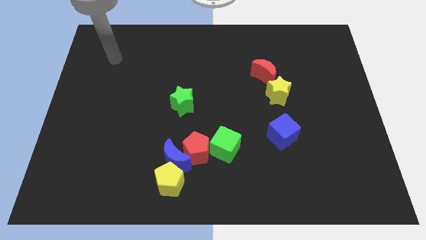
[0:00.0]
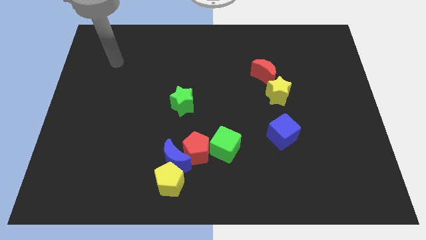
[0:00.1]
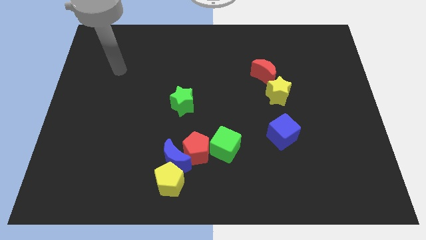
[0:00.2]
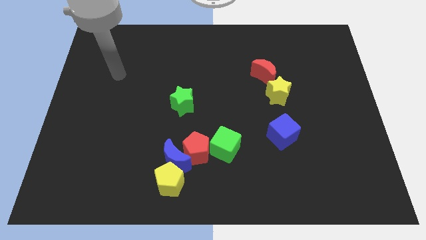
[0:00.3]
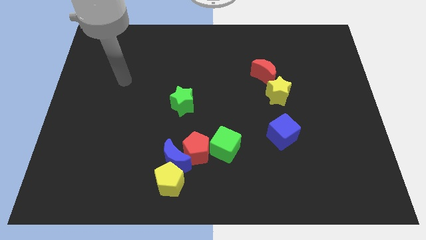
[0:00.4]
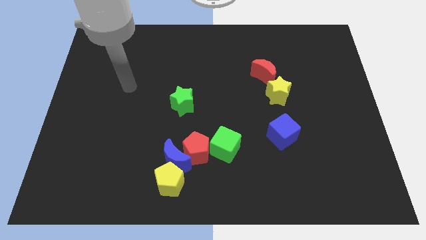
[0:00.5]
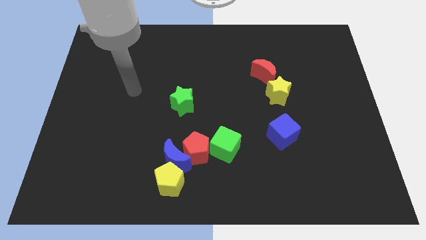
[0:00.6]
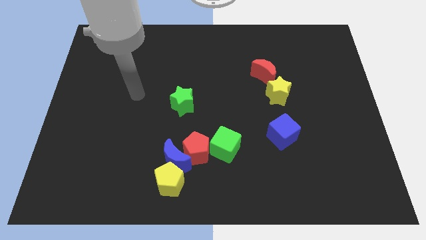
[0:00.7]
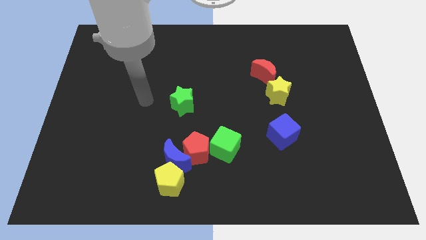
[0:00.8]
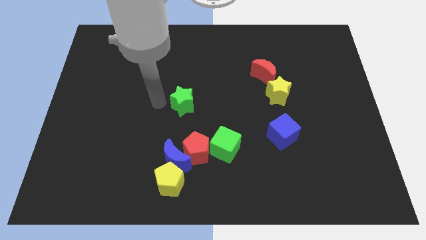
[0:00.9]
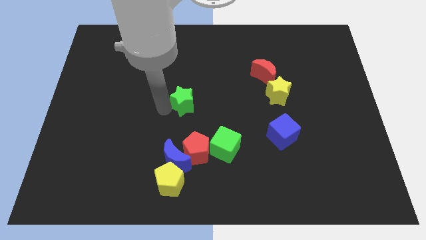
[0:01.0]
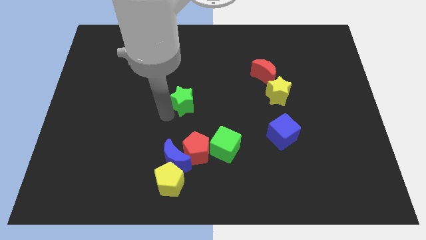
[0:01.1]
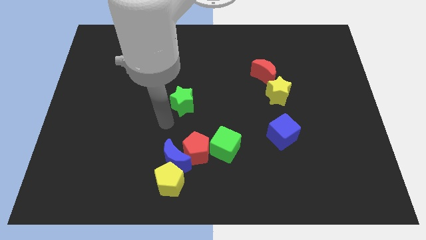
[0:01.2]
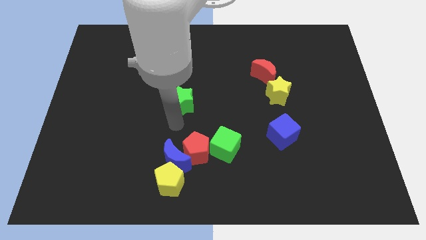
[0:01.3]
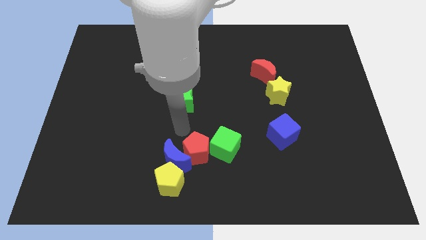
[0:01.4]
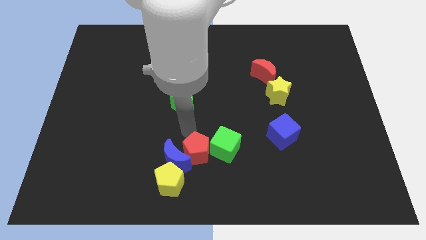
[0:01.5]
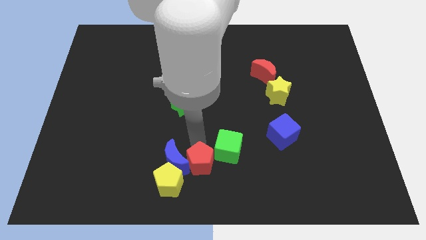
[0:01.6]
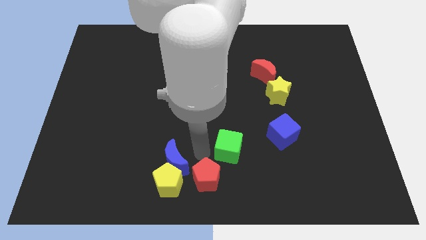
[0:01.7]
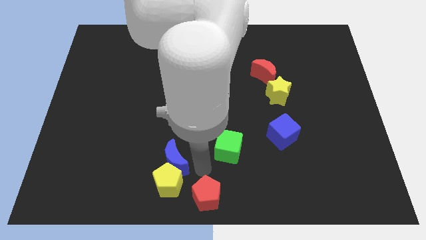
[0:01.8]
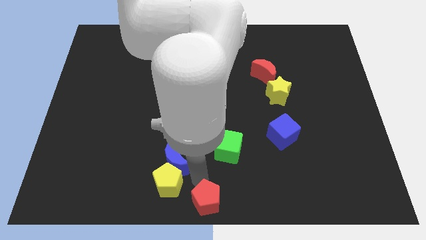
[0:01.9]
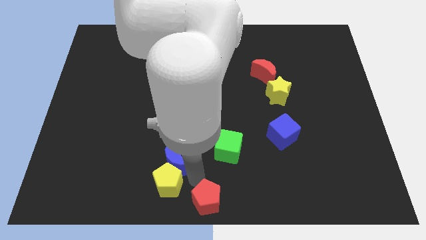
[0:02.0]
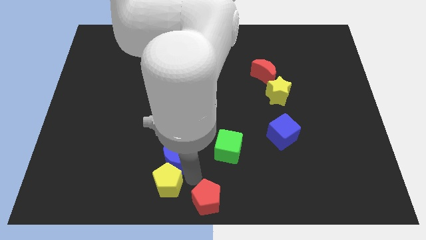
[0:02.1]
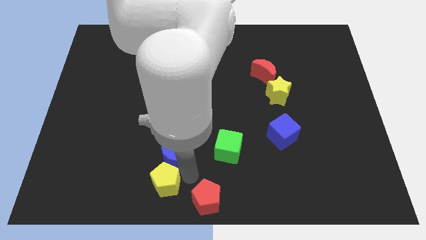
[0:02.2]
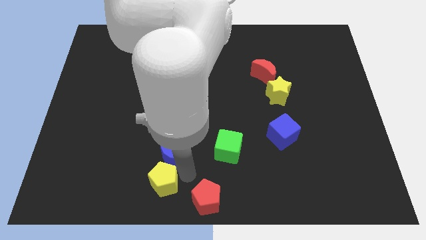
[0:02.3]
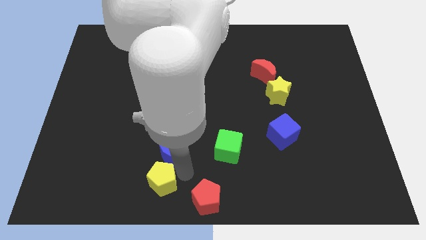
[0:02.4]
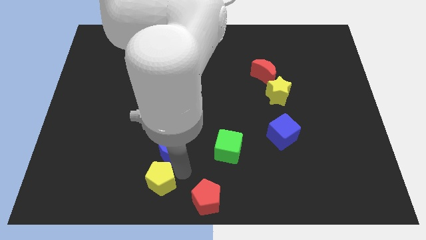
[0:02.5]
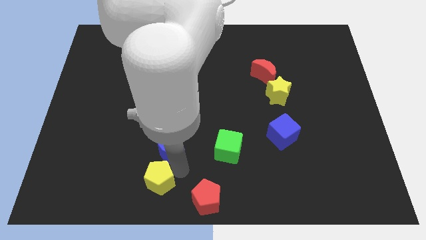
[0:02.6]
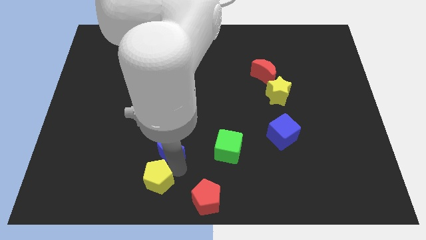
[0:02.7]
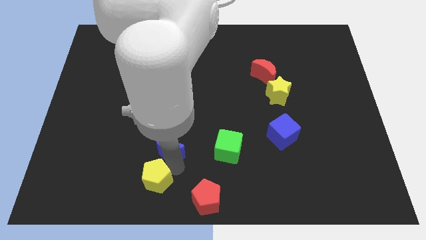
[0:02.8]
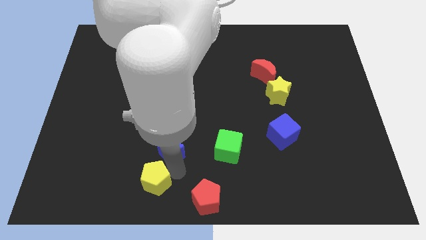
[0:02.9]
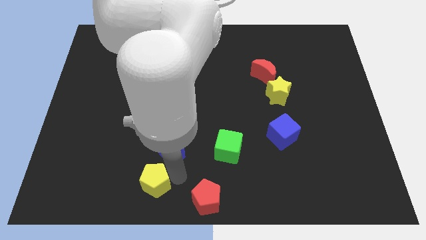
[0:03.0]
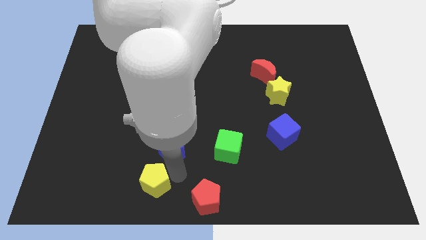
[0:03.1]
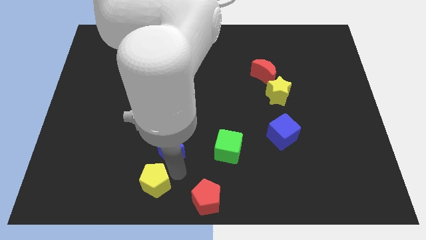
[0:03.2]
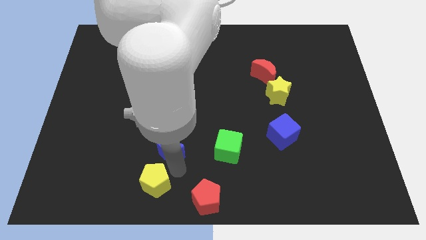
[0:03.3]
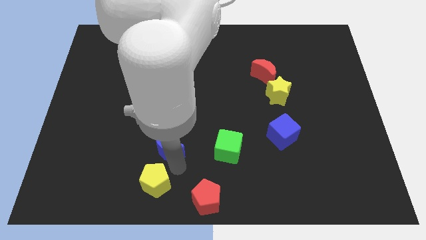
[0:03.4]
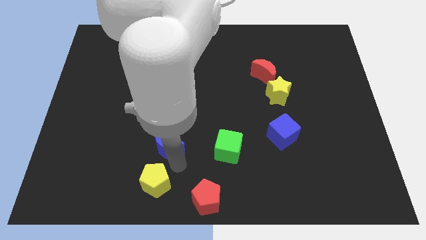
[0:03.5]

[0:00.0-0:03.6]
separate the blue moon from the red pentagon and yellow pentagon

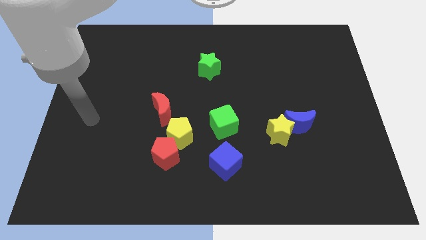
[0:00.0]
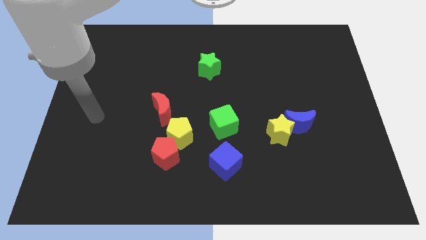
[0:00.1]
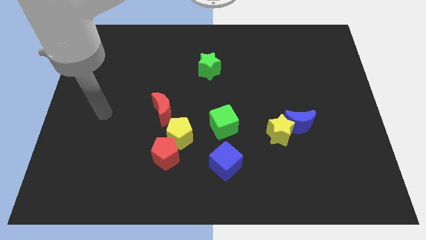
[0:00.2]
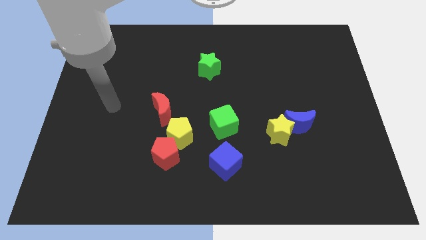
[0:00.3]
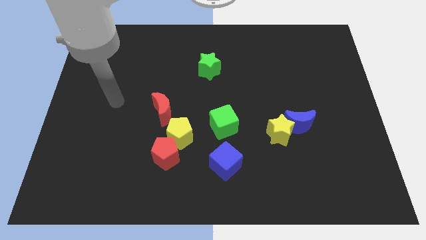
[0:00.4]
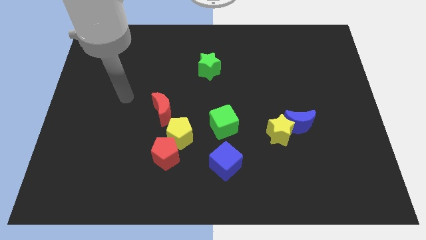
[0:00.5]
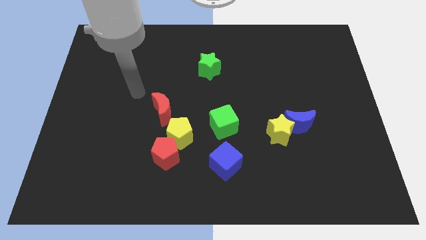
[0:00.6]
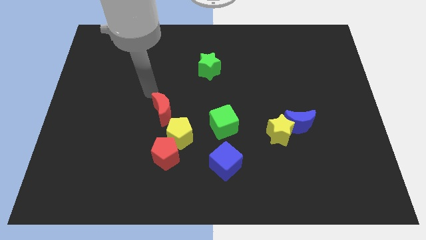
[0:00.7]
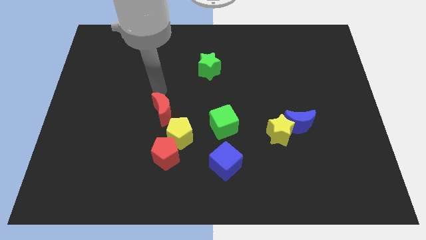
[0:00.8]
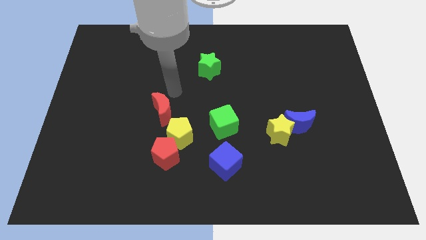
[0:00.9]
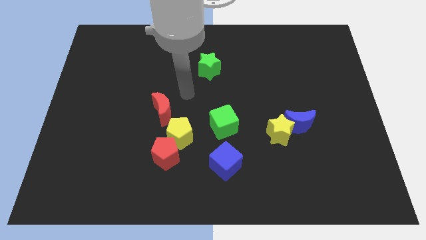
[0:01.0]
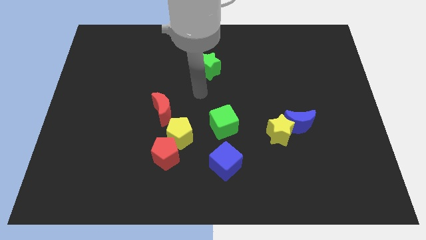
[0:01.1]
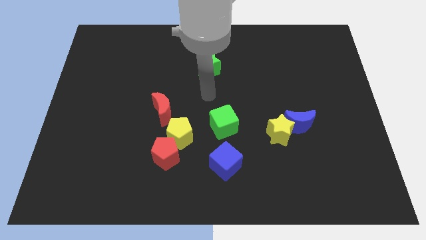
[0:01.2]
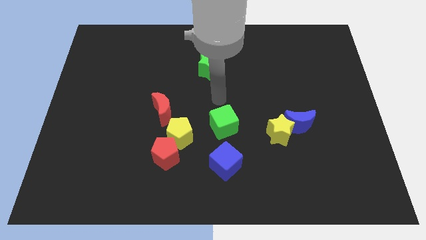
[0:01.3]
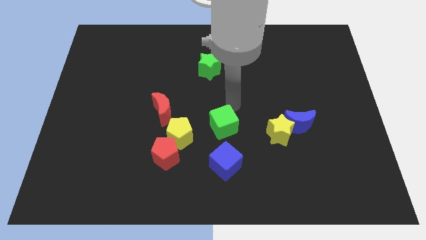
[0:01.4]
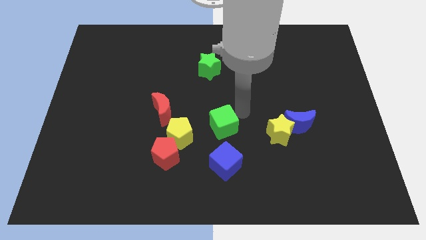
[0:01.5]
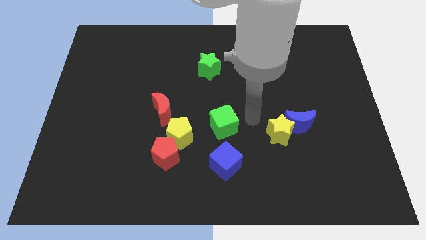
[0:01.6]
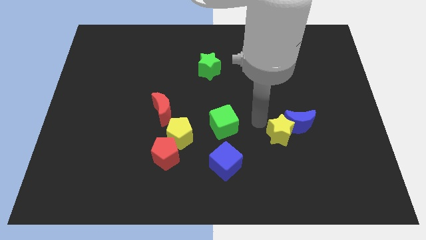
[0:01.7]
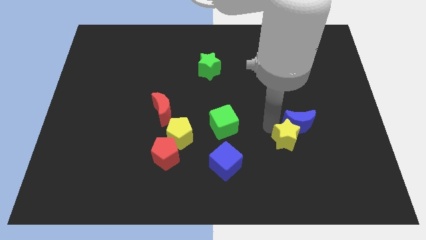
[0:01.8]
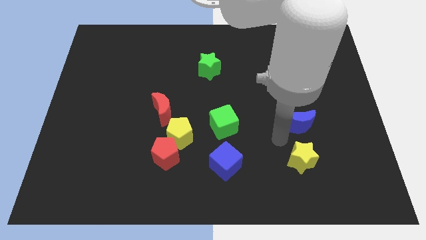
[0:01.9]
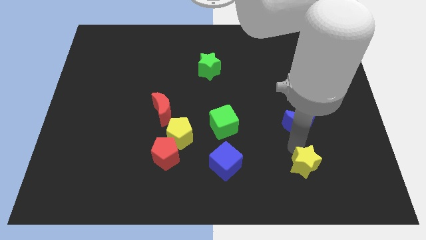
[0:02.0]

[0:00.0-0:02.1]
pull the blue moon apart from the yellow star

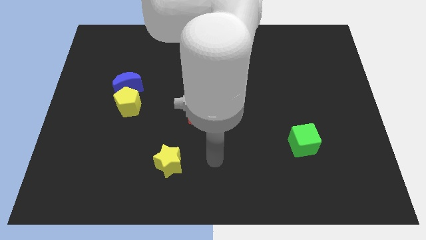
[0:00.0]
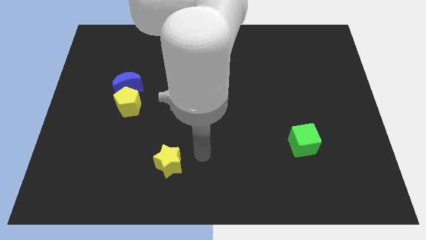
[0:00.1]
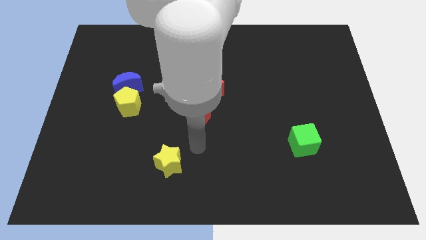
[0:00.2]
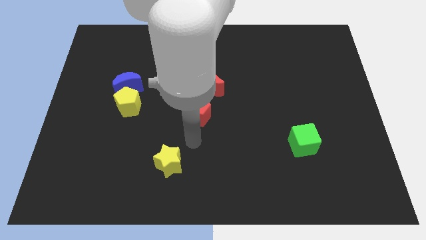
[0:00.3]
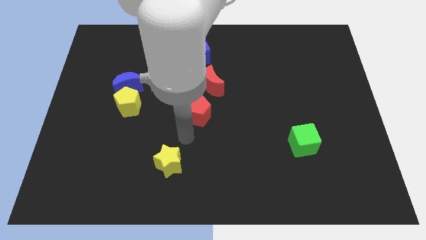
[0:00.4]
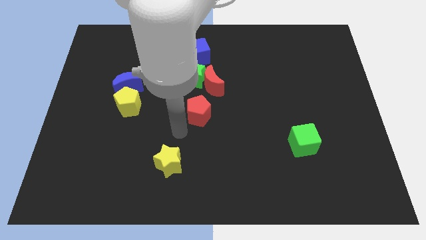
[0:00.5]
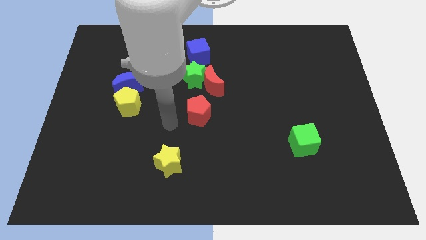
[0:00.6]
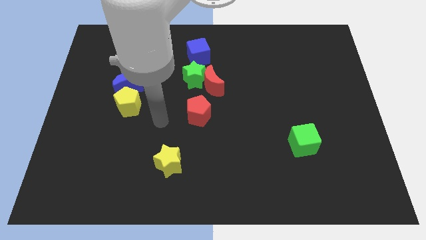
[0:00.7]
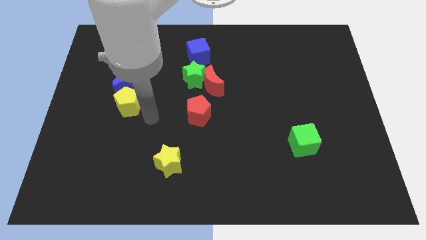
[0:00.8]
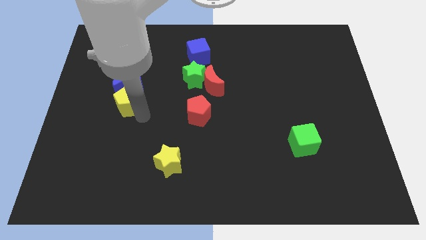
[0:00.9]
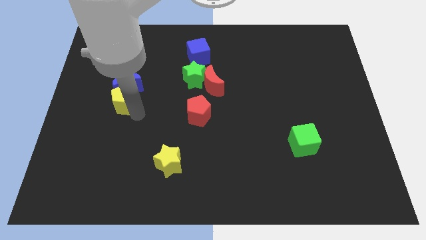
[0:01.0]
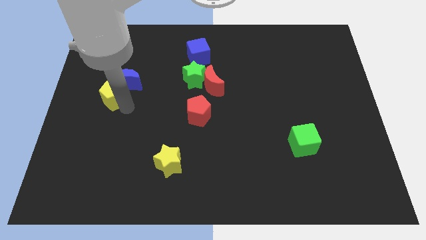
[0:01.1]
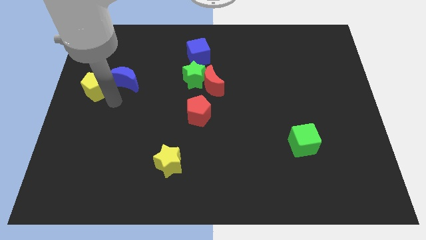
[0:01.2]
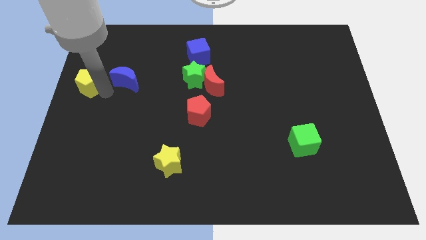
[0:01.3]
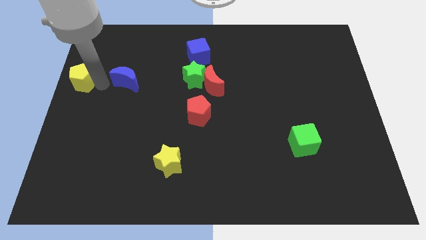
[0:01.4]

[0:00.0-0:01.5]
move the blue moon away from the yellow pentagon

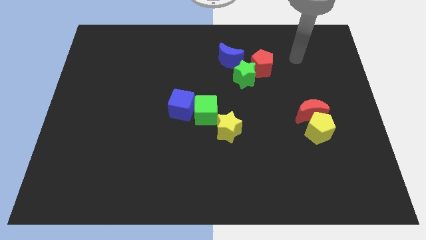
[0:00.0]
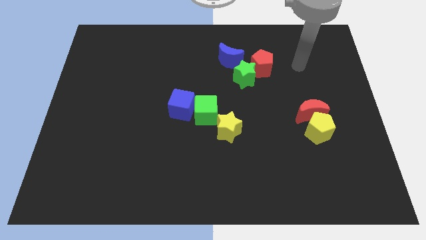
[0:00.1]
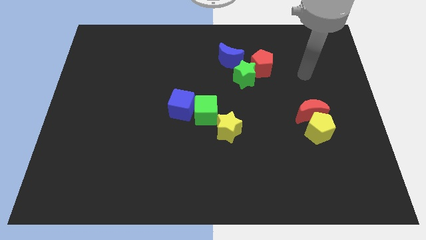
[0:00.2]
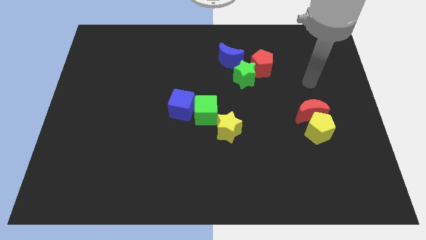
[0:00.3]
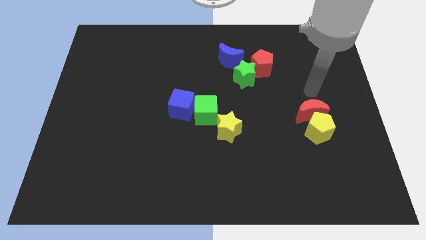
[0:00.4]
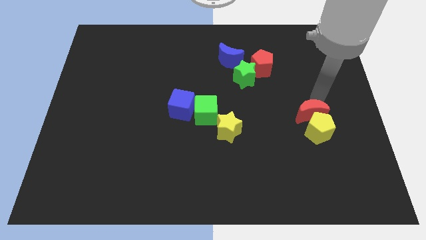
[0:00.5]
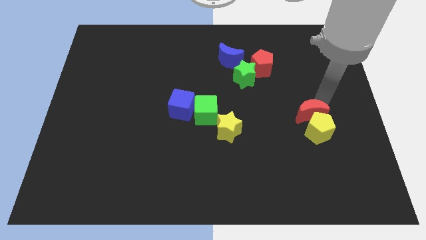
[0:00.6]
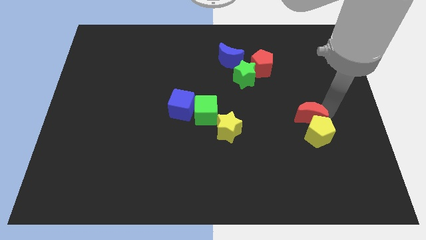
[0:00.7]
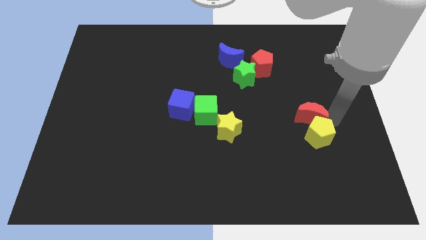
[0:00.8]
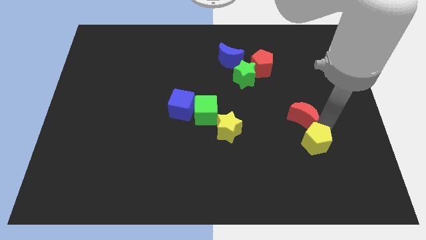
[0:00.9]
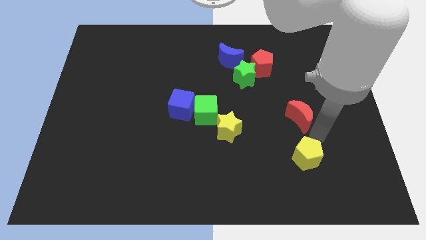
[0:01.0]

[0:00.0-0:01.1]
separate the red moon from the yellow pentagon

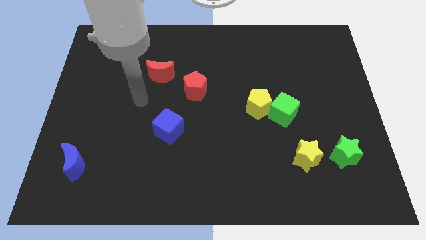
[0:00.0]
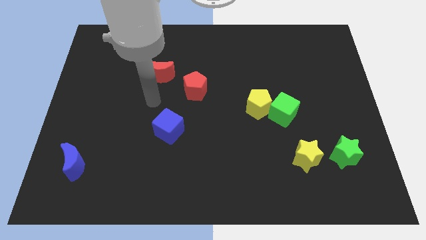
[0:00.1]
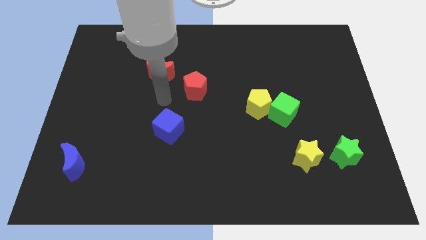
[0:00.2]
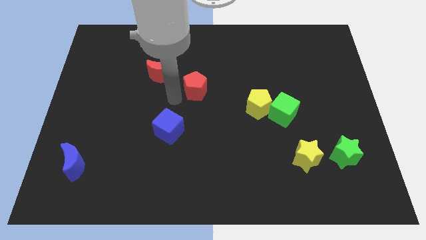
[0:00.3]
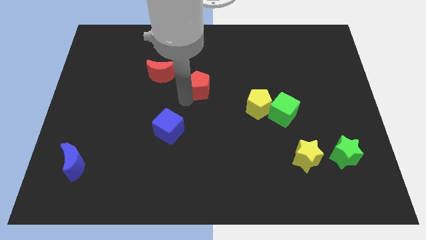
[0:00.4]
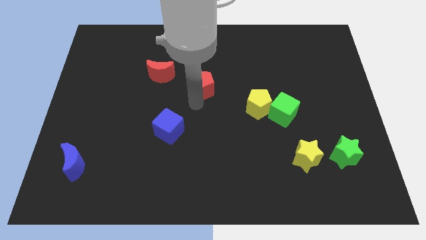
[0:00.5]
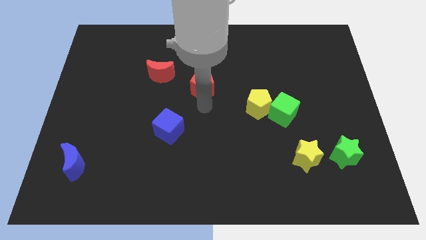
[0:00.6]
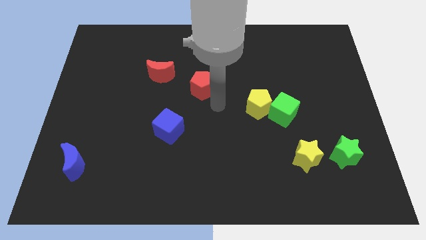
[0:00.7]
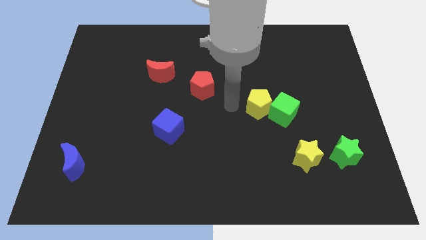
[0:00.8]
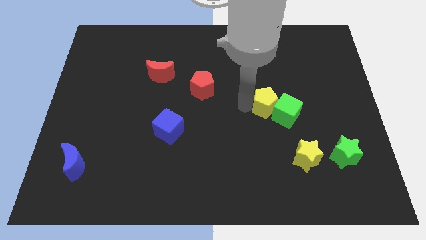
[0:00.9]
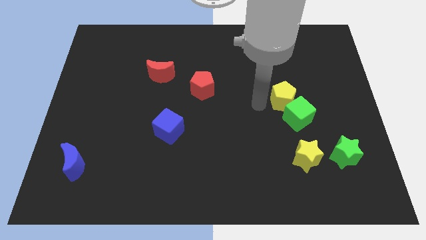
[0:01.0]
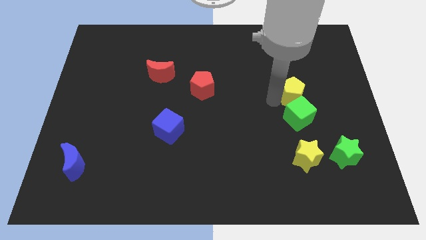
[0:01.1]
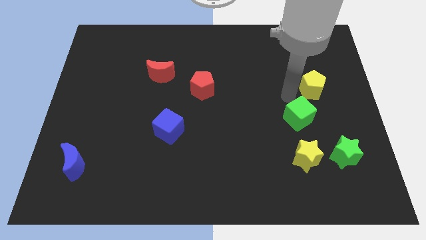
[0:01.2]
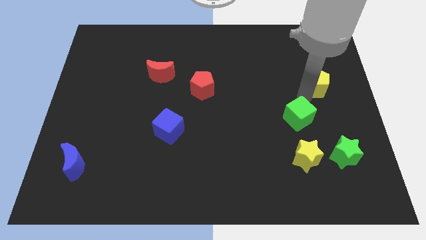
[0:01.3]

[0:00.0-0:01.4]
pull the green cube apart from the yellow pentagon
